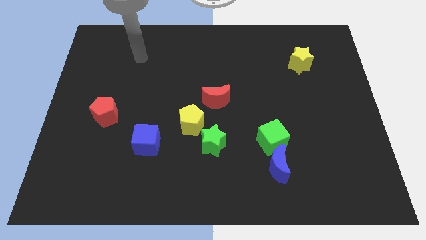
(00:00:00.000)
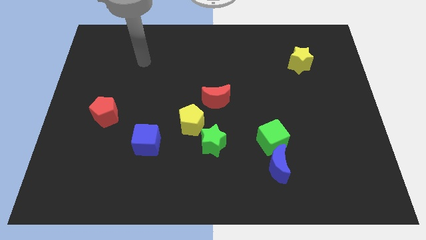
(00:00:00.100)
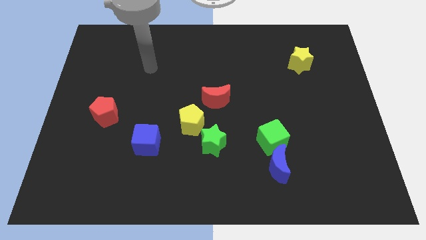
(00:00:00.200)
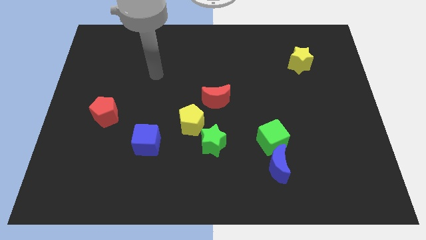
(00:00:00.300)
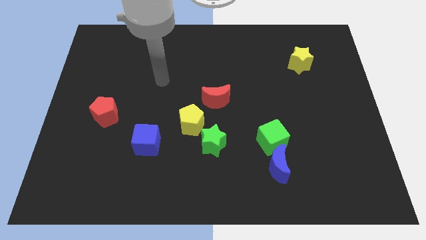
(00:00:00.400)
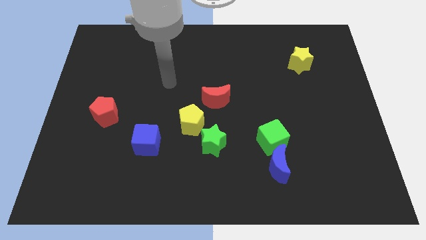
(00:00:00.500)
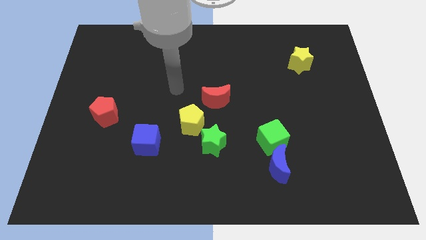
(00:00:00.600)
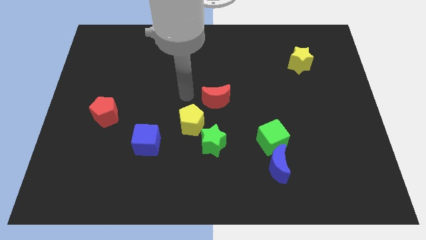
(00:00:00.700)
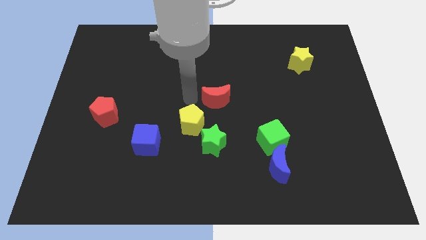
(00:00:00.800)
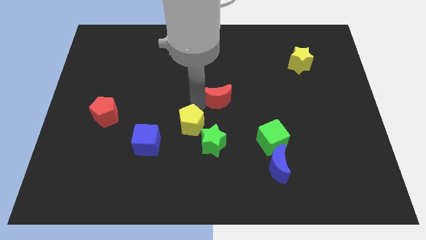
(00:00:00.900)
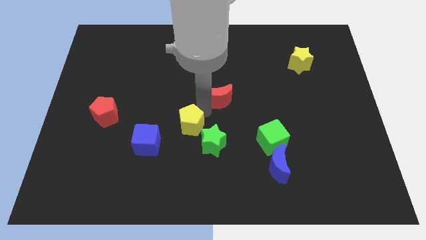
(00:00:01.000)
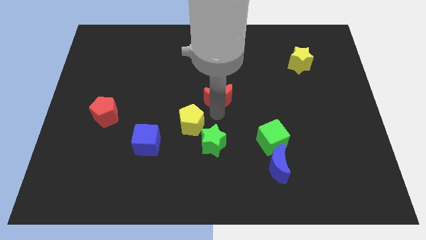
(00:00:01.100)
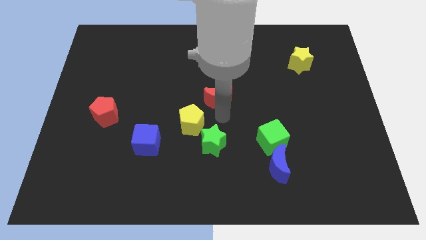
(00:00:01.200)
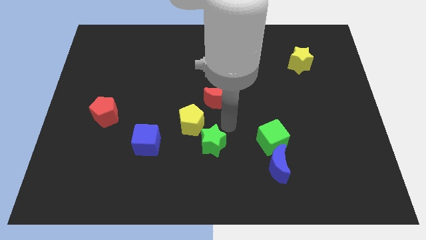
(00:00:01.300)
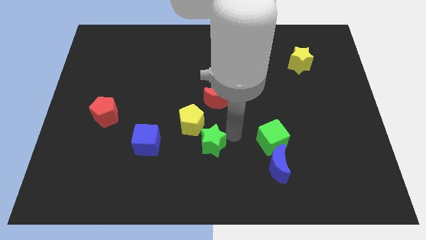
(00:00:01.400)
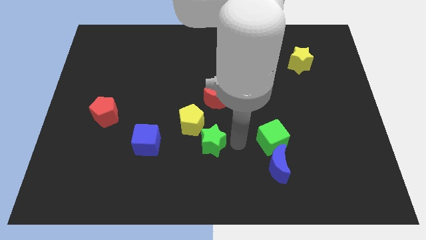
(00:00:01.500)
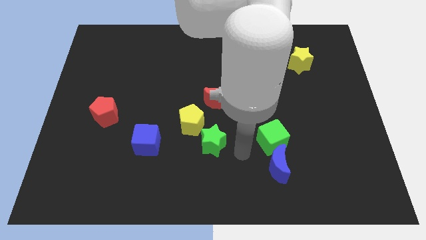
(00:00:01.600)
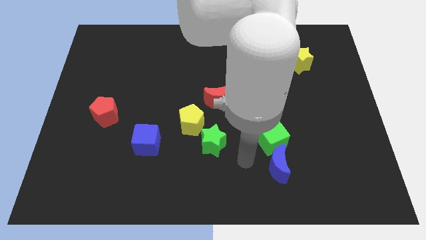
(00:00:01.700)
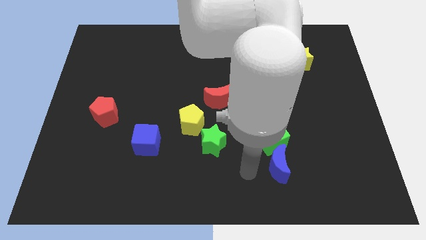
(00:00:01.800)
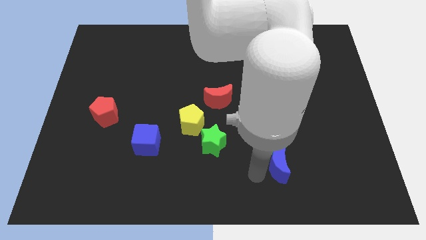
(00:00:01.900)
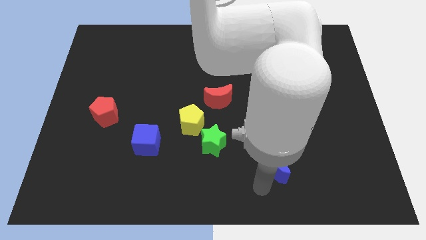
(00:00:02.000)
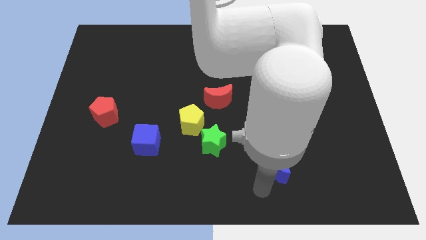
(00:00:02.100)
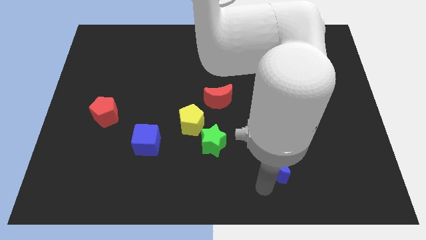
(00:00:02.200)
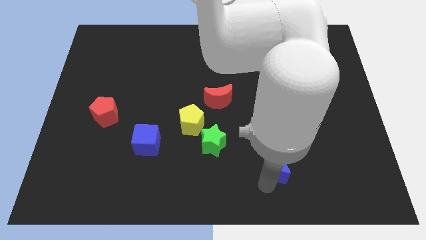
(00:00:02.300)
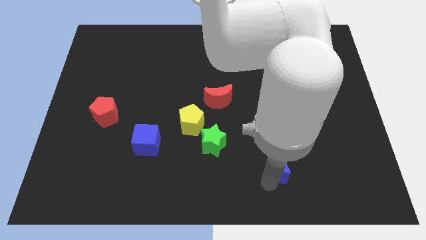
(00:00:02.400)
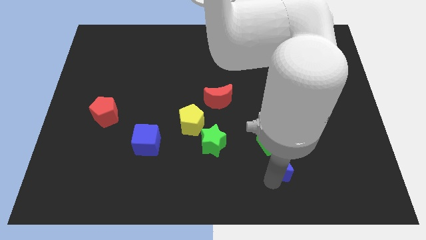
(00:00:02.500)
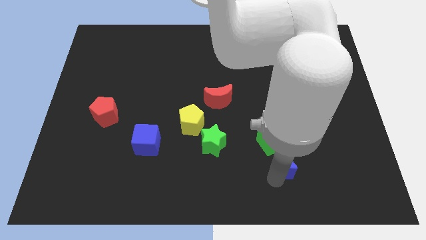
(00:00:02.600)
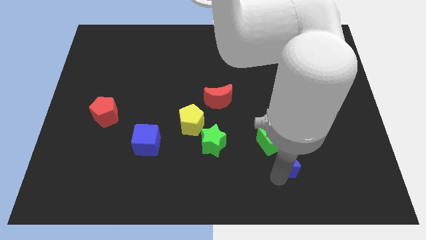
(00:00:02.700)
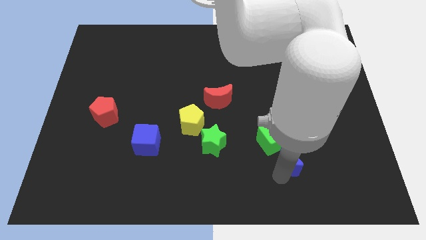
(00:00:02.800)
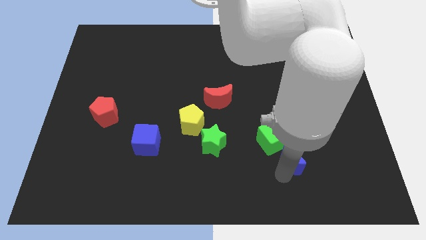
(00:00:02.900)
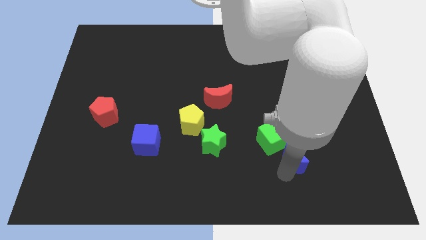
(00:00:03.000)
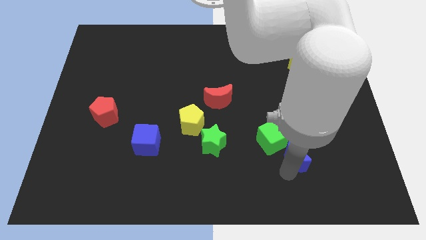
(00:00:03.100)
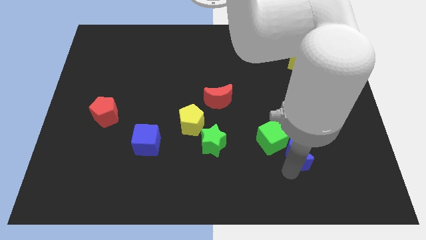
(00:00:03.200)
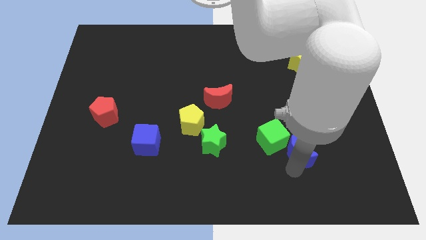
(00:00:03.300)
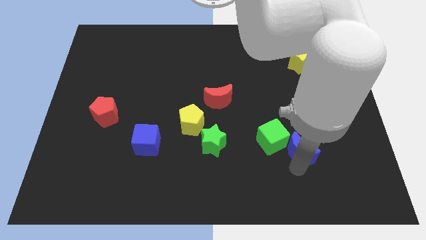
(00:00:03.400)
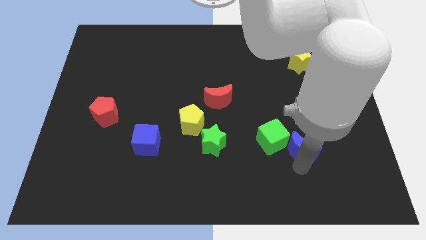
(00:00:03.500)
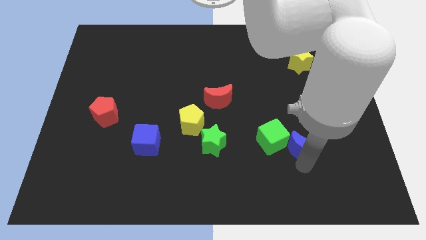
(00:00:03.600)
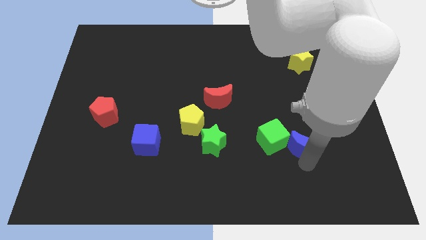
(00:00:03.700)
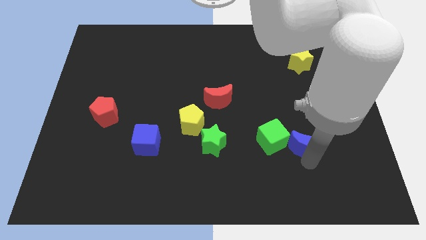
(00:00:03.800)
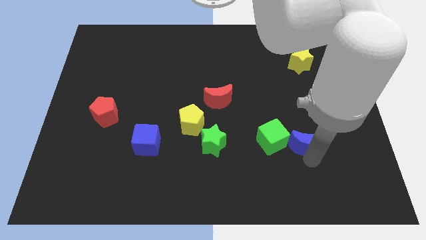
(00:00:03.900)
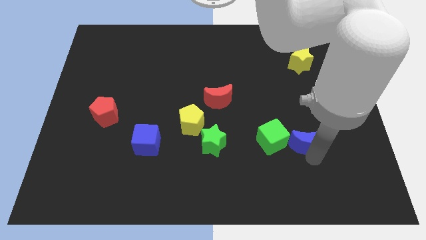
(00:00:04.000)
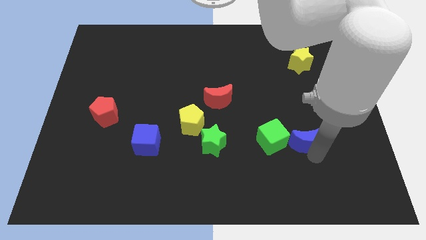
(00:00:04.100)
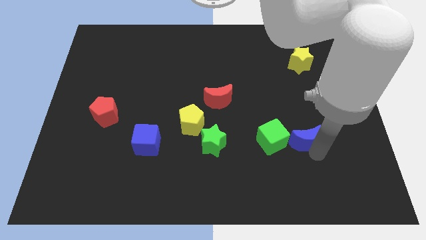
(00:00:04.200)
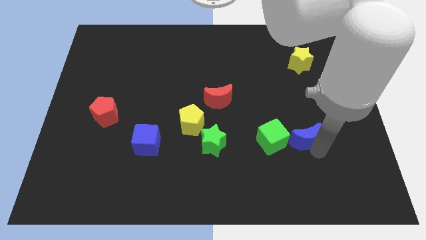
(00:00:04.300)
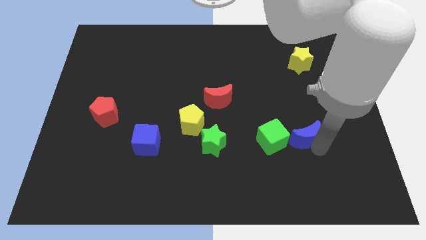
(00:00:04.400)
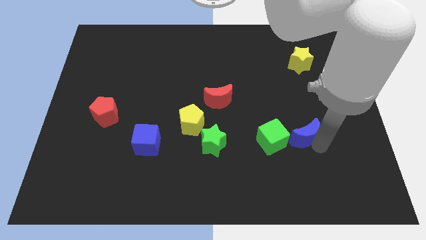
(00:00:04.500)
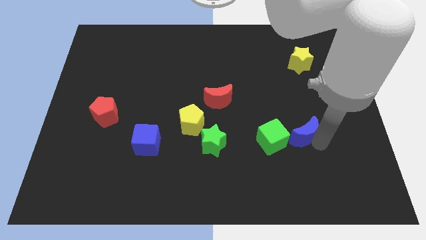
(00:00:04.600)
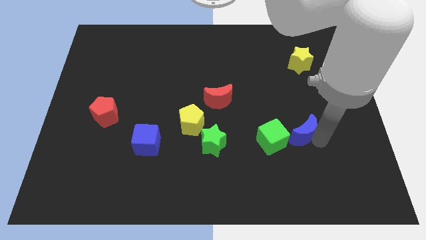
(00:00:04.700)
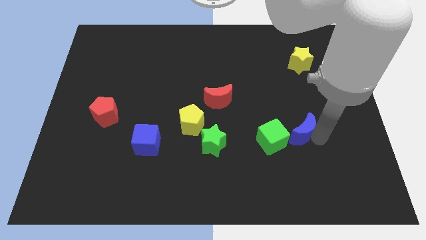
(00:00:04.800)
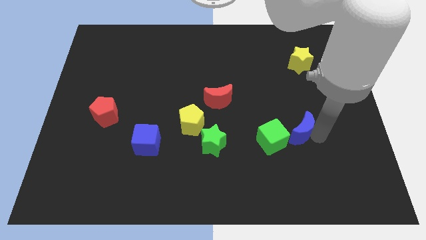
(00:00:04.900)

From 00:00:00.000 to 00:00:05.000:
slide the blue moon slightly up

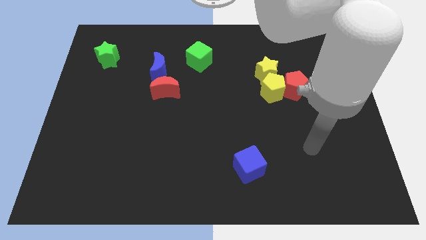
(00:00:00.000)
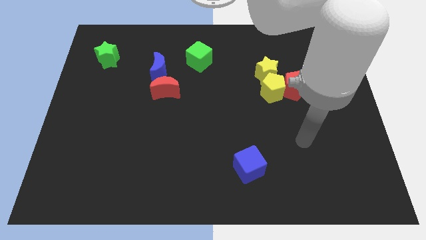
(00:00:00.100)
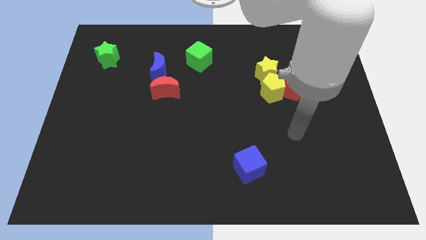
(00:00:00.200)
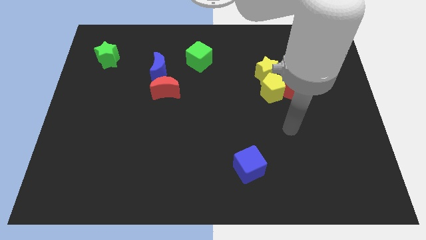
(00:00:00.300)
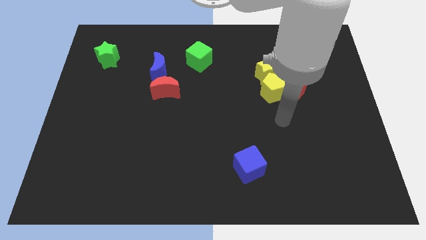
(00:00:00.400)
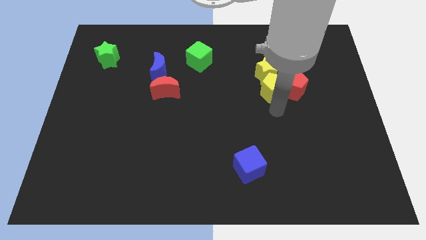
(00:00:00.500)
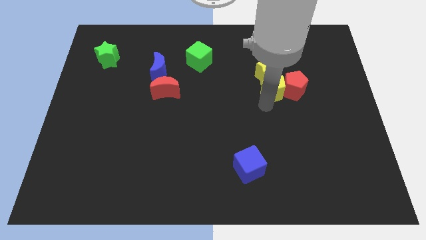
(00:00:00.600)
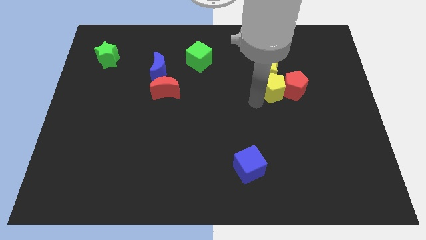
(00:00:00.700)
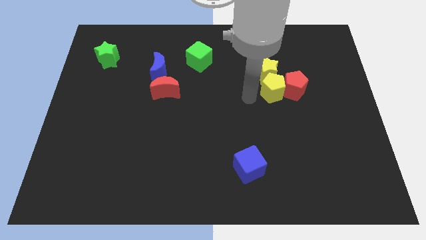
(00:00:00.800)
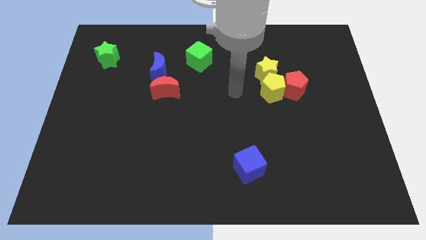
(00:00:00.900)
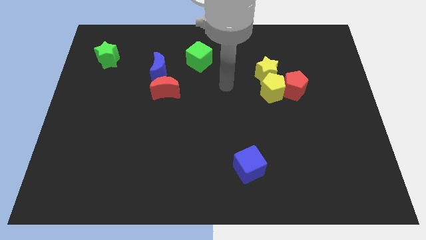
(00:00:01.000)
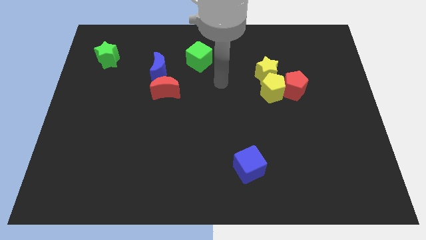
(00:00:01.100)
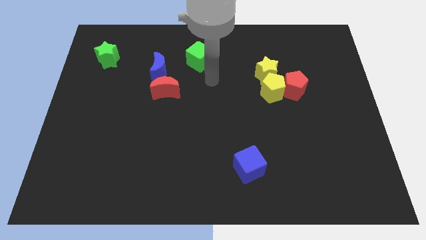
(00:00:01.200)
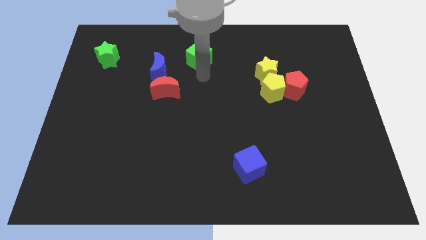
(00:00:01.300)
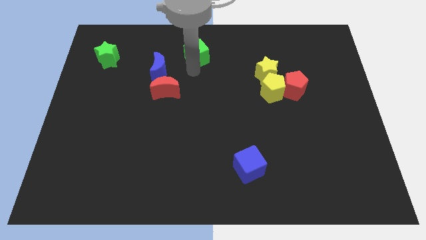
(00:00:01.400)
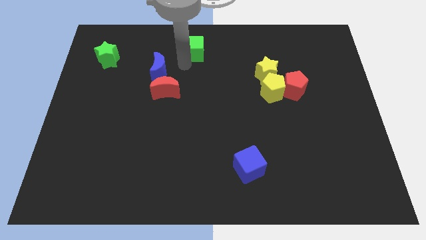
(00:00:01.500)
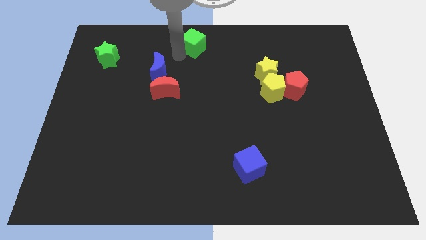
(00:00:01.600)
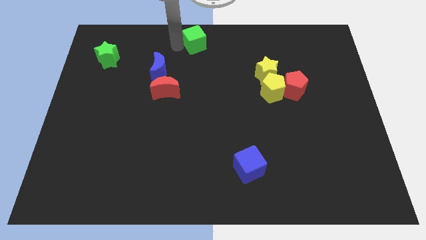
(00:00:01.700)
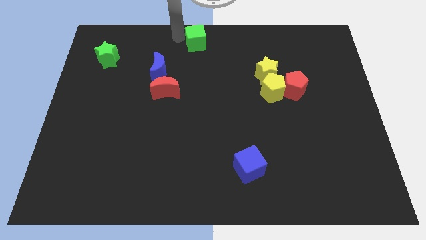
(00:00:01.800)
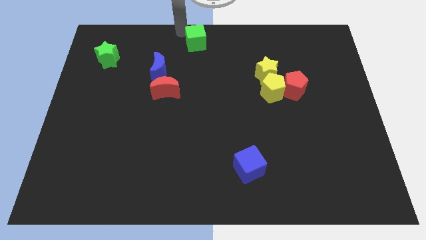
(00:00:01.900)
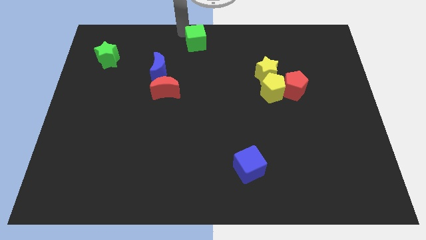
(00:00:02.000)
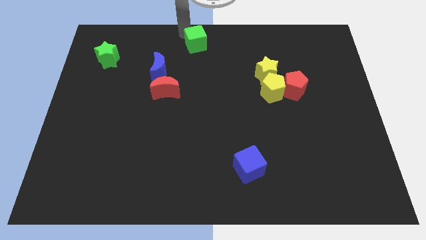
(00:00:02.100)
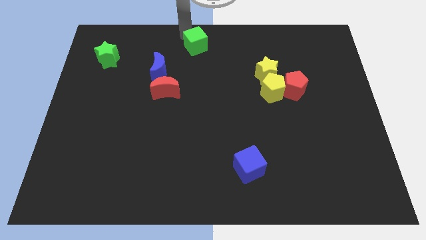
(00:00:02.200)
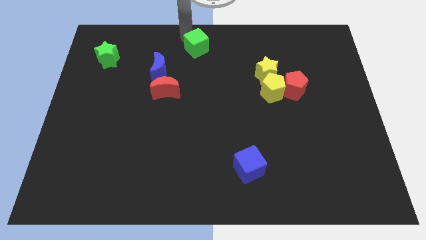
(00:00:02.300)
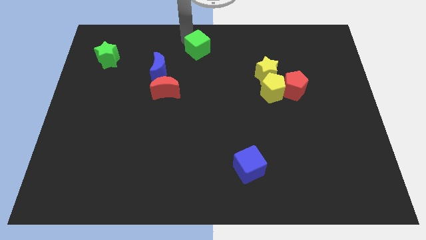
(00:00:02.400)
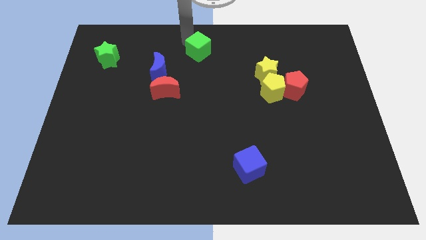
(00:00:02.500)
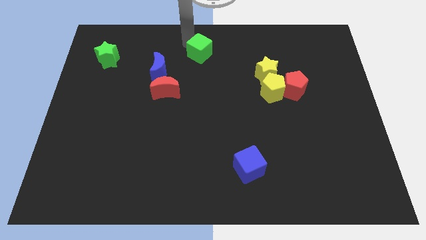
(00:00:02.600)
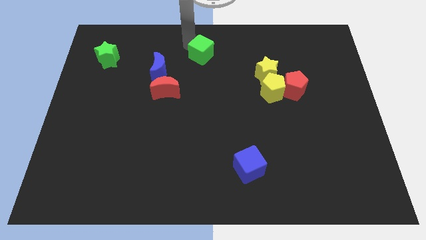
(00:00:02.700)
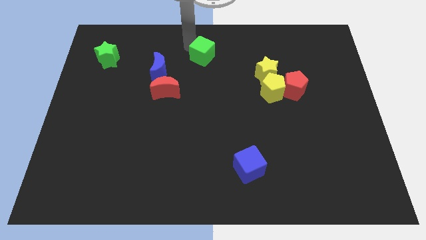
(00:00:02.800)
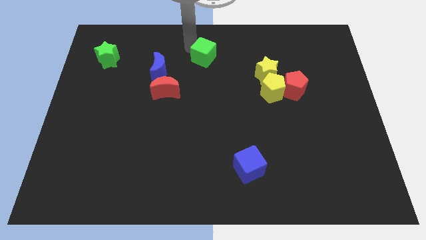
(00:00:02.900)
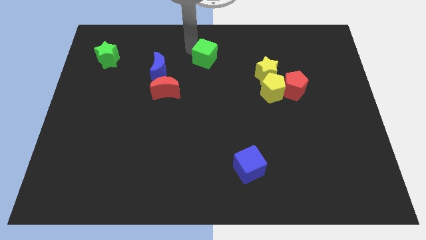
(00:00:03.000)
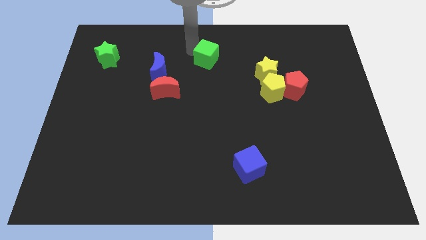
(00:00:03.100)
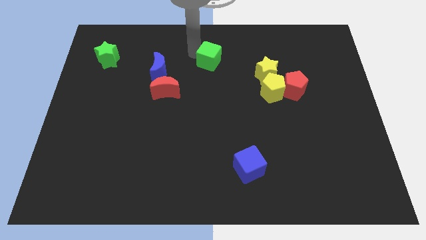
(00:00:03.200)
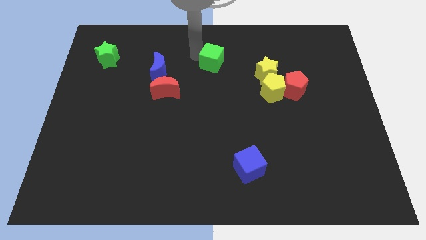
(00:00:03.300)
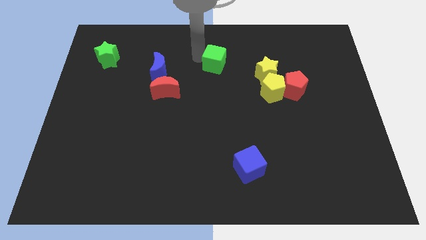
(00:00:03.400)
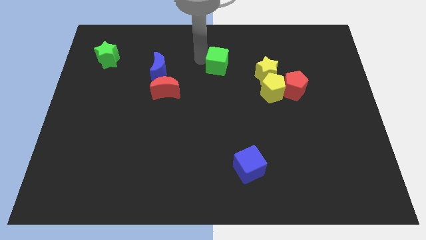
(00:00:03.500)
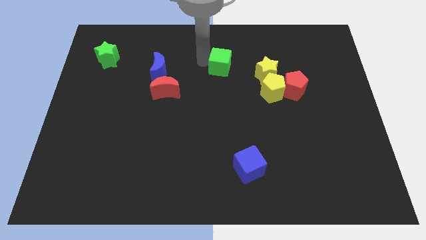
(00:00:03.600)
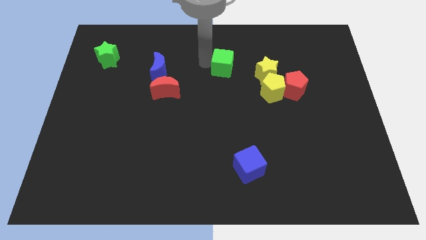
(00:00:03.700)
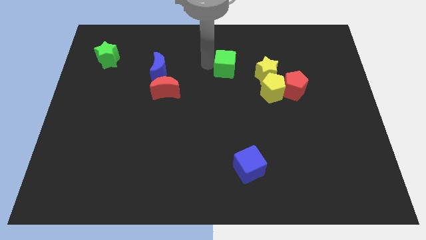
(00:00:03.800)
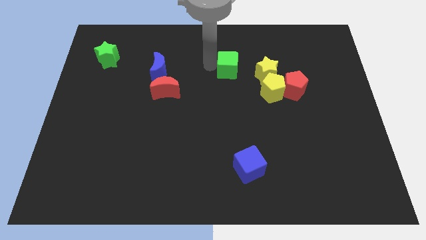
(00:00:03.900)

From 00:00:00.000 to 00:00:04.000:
push the green cube right a little bit
